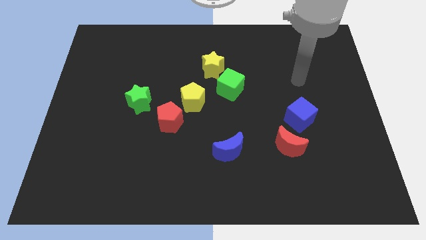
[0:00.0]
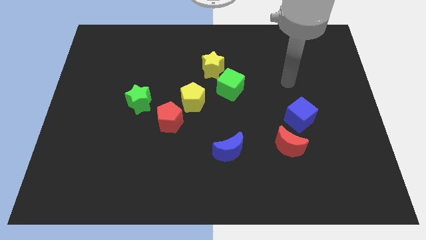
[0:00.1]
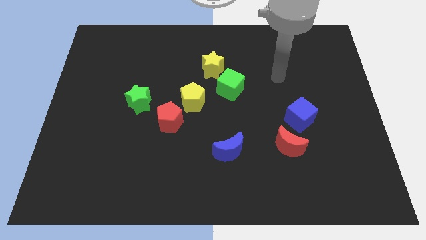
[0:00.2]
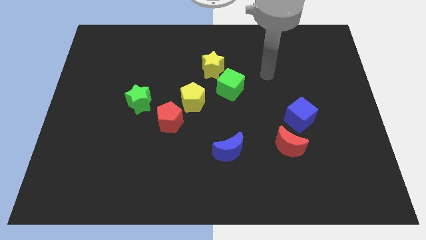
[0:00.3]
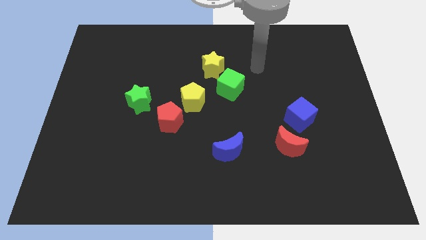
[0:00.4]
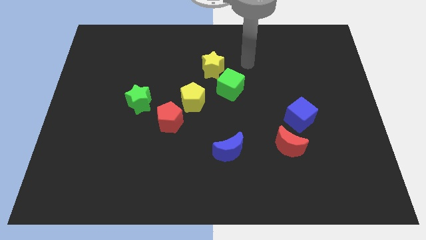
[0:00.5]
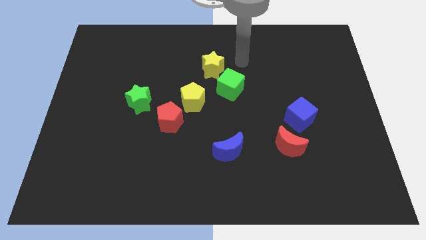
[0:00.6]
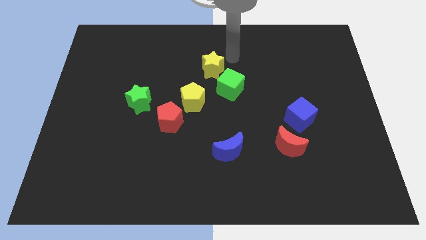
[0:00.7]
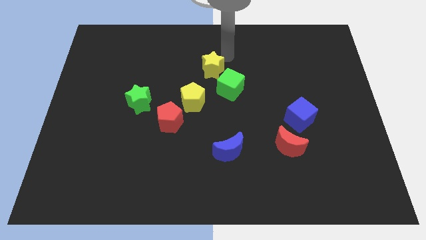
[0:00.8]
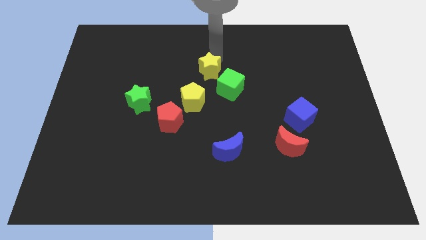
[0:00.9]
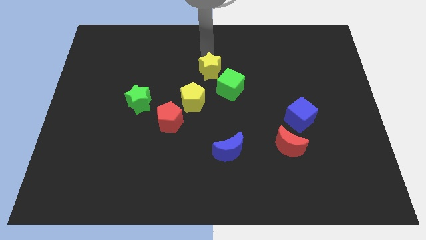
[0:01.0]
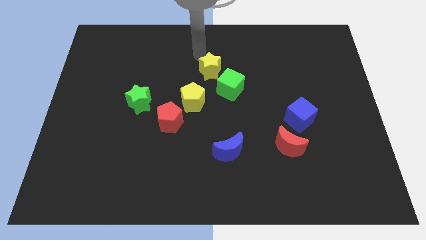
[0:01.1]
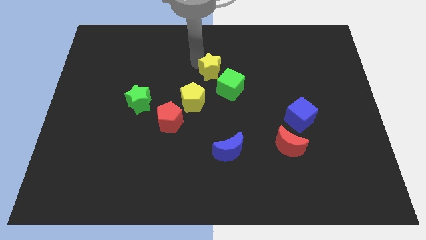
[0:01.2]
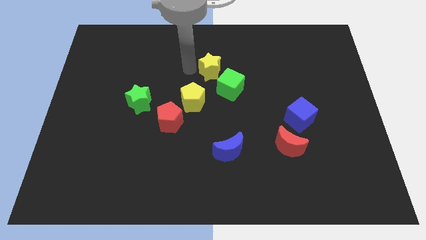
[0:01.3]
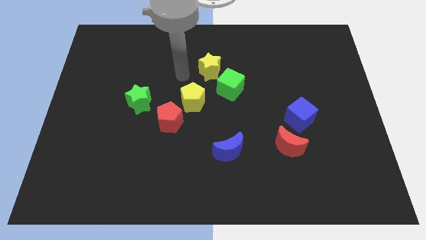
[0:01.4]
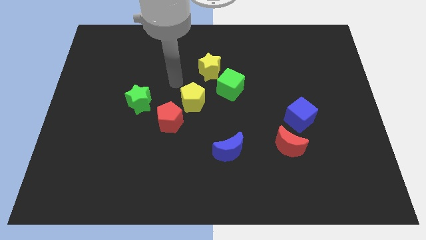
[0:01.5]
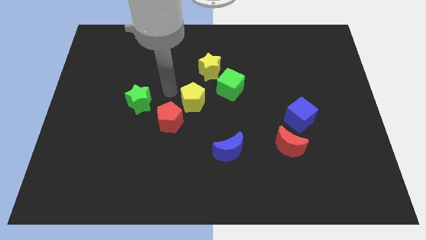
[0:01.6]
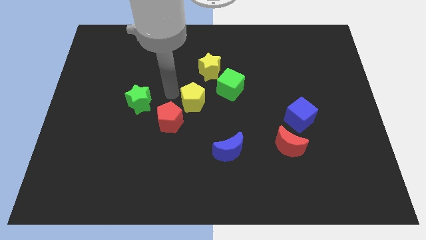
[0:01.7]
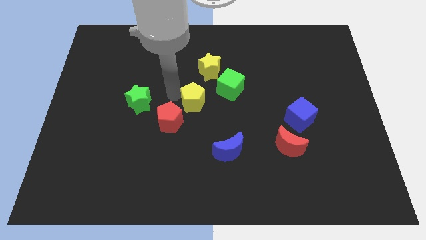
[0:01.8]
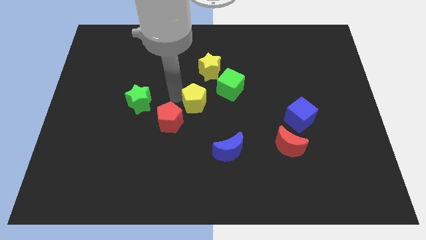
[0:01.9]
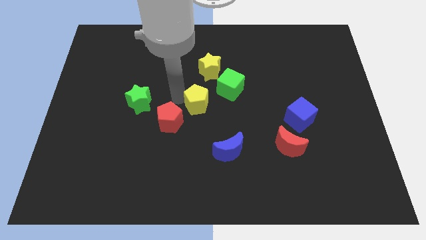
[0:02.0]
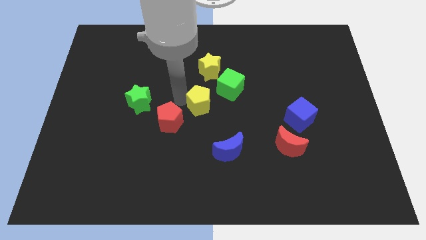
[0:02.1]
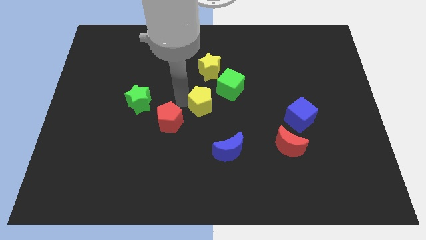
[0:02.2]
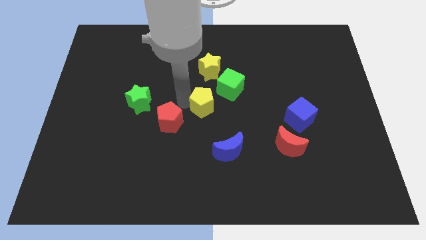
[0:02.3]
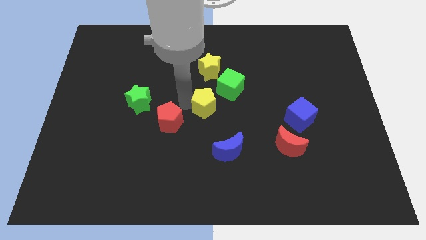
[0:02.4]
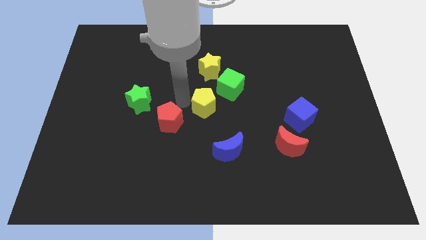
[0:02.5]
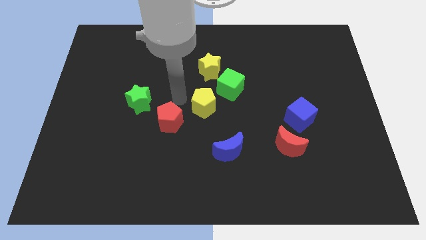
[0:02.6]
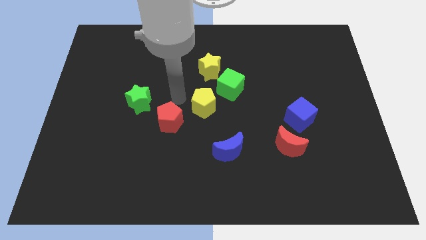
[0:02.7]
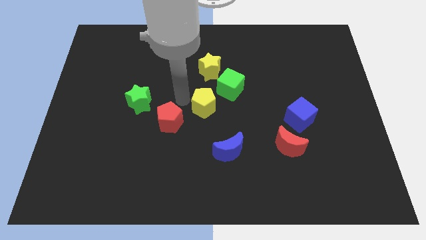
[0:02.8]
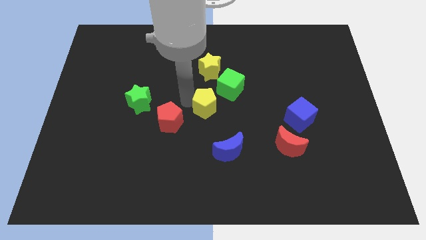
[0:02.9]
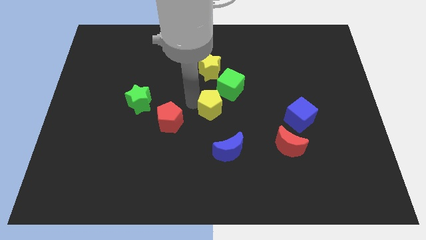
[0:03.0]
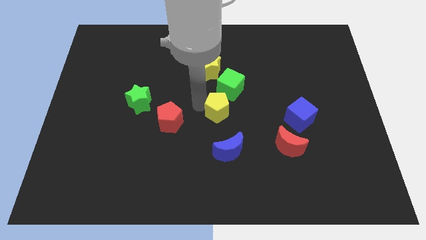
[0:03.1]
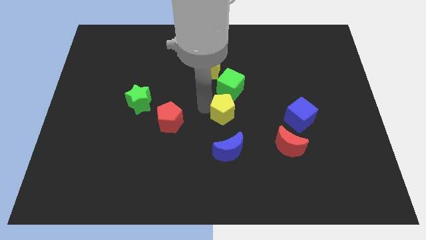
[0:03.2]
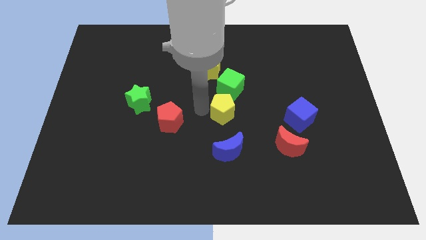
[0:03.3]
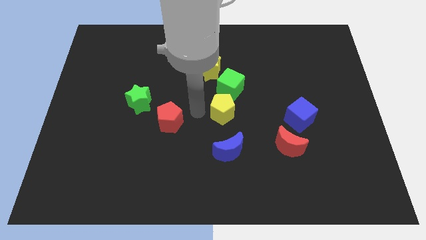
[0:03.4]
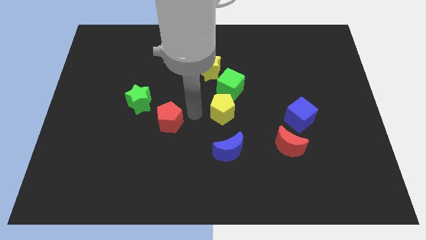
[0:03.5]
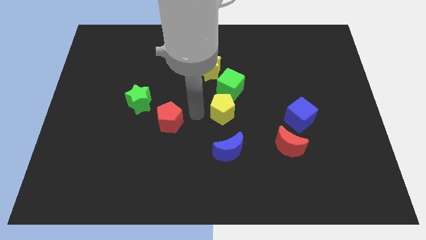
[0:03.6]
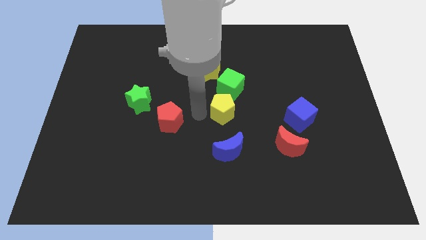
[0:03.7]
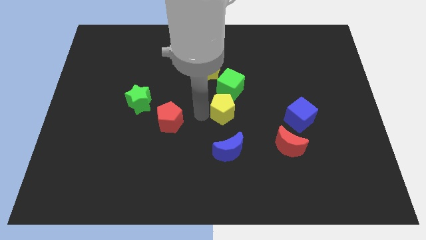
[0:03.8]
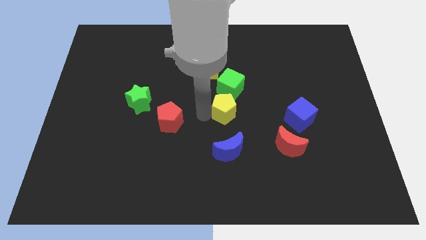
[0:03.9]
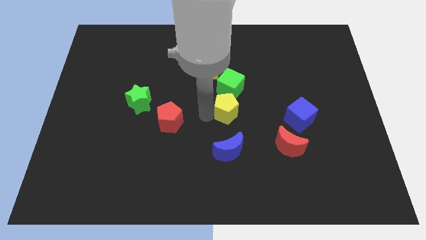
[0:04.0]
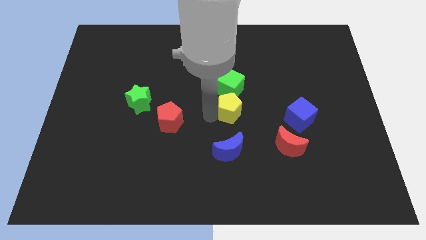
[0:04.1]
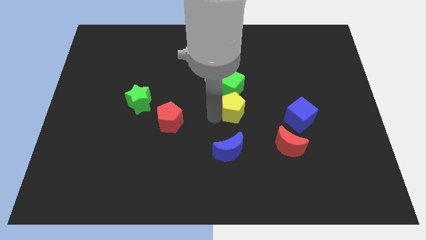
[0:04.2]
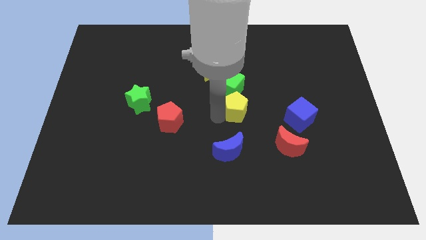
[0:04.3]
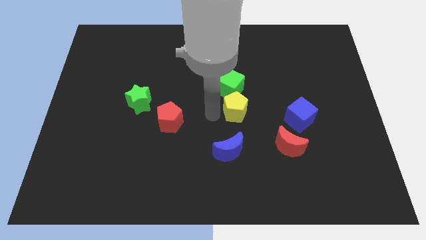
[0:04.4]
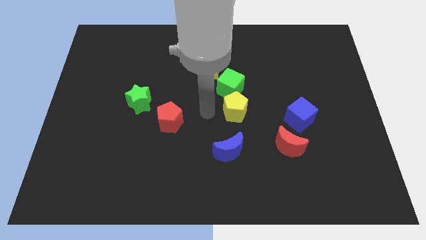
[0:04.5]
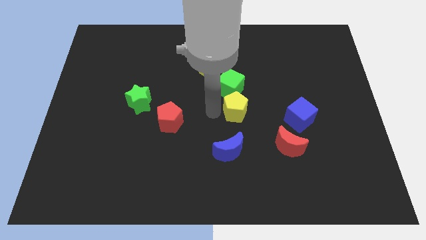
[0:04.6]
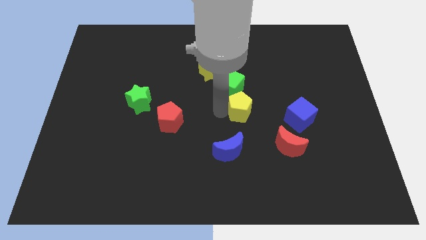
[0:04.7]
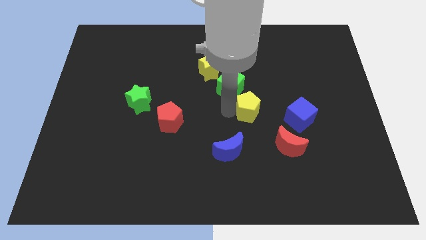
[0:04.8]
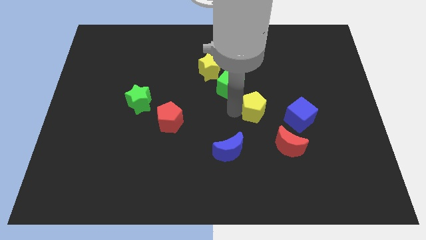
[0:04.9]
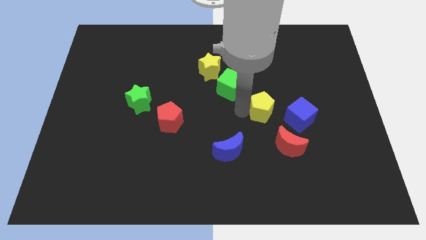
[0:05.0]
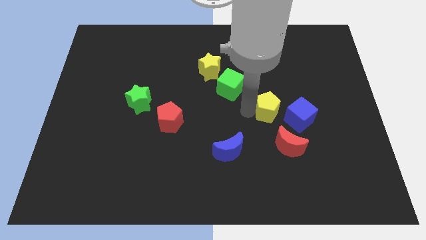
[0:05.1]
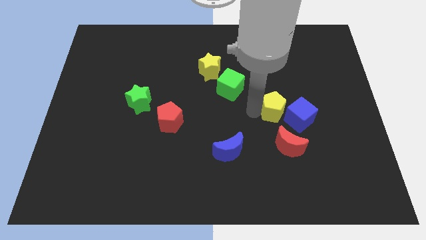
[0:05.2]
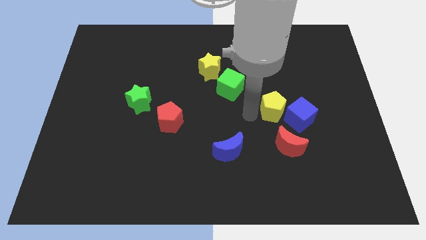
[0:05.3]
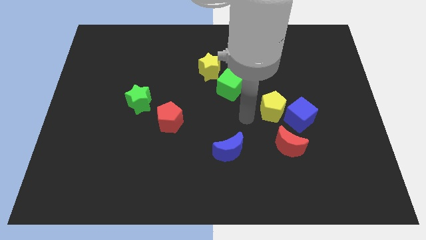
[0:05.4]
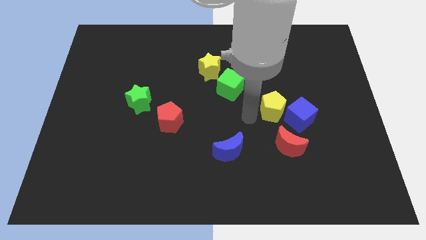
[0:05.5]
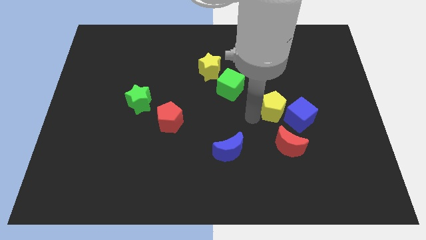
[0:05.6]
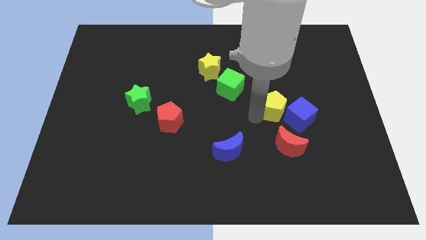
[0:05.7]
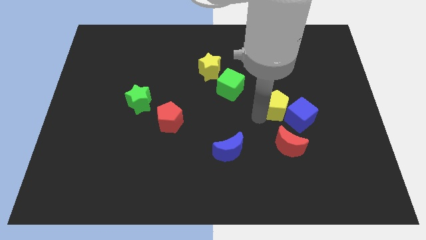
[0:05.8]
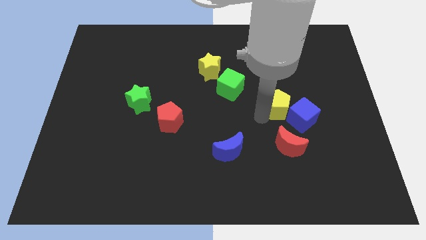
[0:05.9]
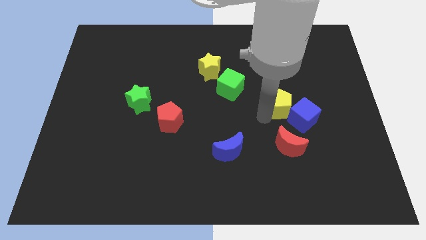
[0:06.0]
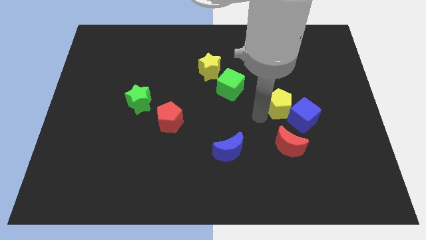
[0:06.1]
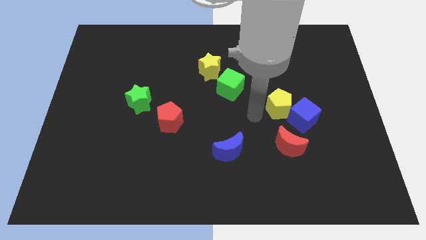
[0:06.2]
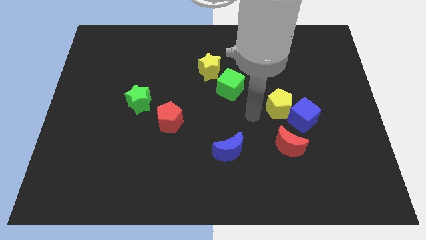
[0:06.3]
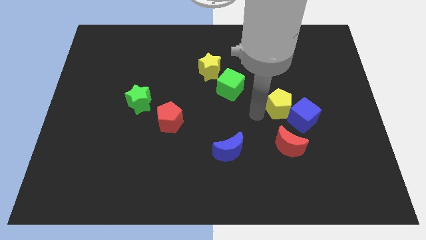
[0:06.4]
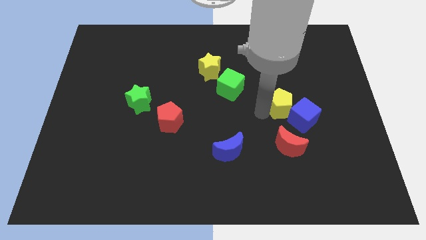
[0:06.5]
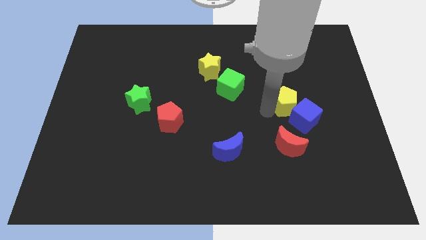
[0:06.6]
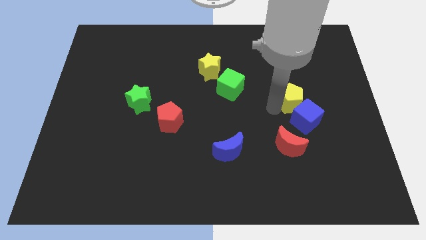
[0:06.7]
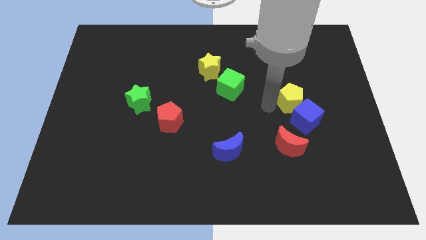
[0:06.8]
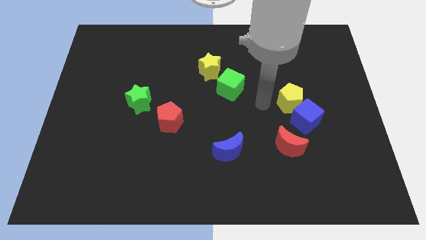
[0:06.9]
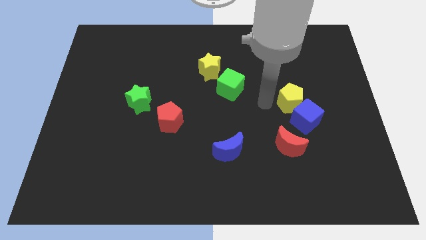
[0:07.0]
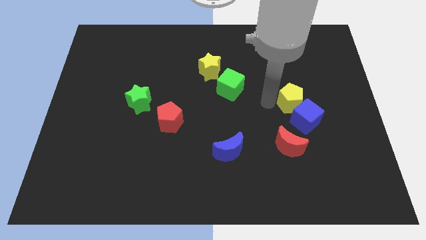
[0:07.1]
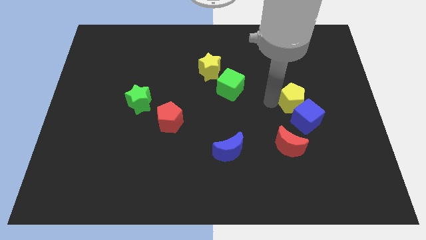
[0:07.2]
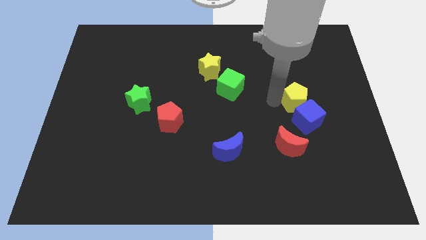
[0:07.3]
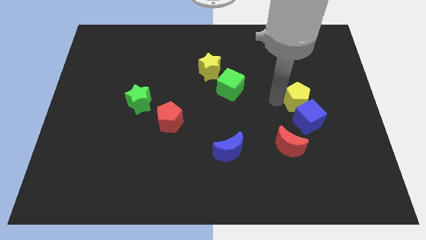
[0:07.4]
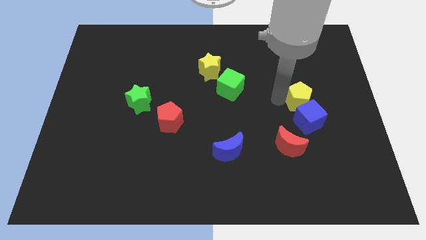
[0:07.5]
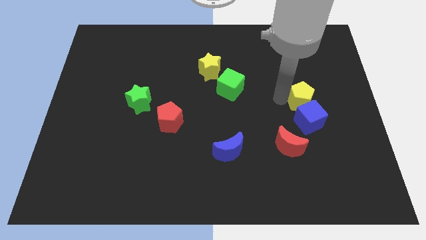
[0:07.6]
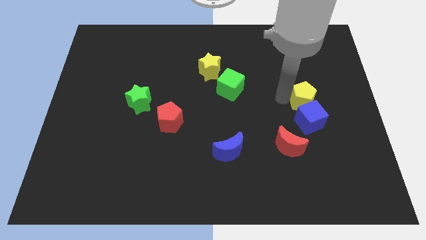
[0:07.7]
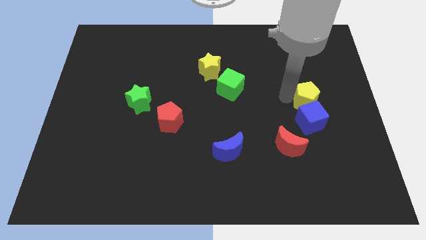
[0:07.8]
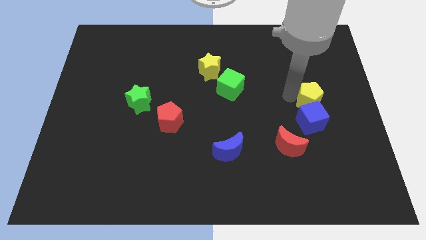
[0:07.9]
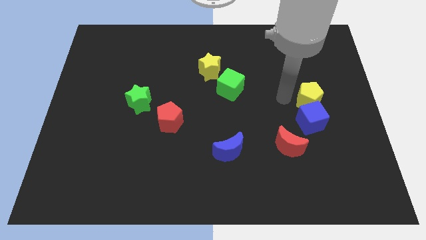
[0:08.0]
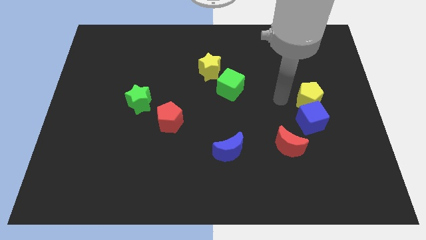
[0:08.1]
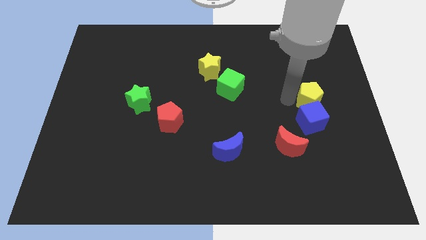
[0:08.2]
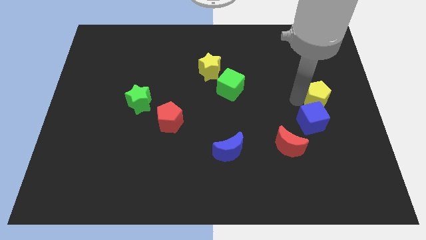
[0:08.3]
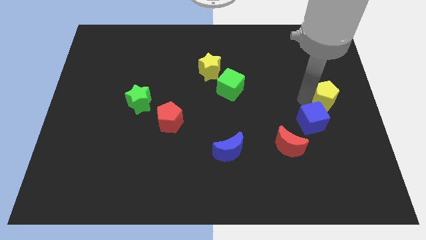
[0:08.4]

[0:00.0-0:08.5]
slide the yellow pentagon to the center right
